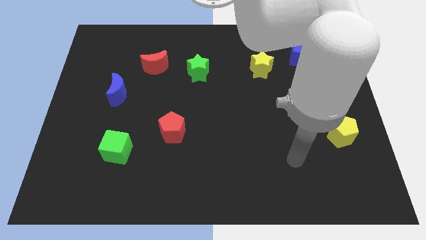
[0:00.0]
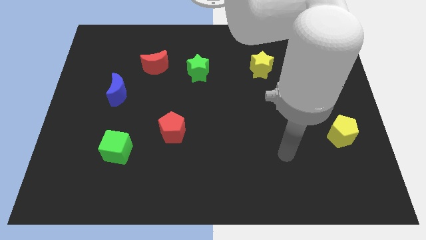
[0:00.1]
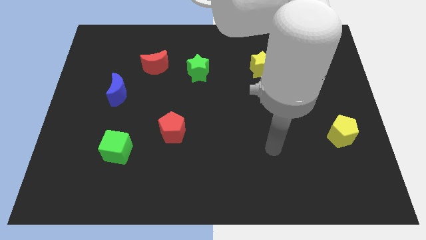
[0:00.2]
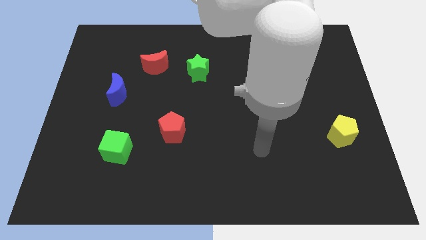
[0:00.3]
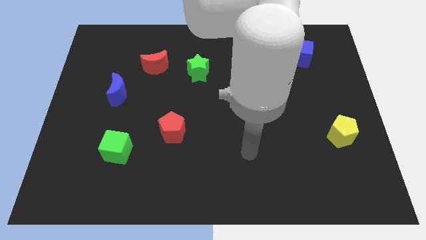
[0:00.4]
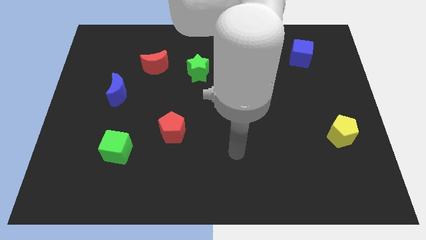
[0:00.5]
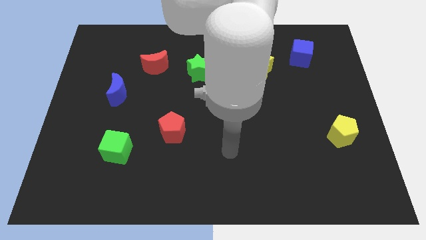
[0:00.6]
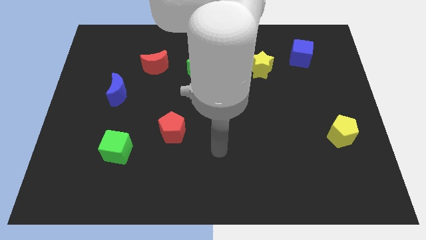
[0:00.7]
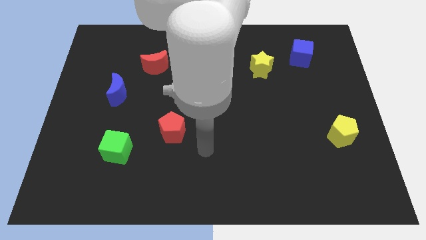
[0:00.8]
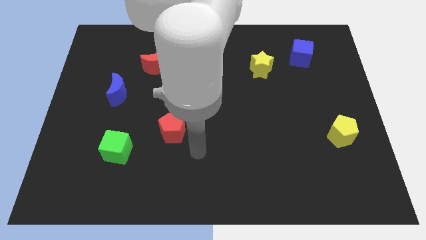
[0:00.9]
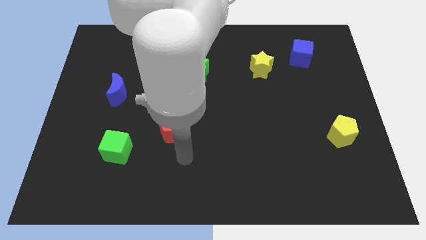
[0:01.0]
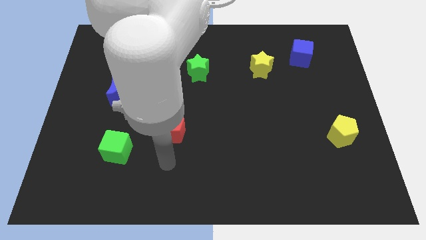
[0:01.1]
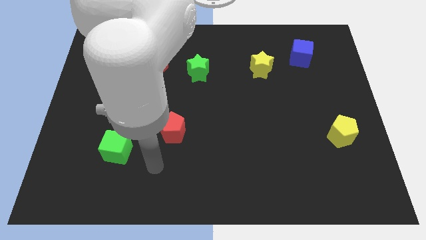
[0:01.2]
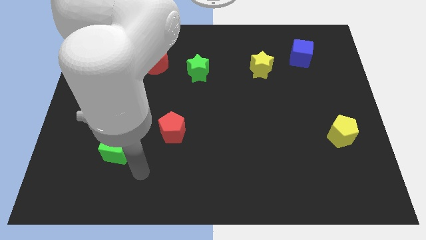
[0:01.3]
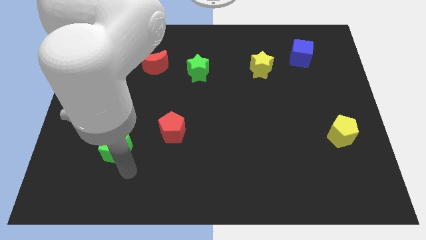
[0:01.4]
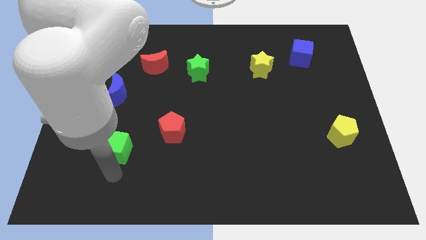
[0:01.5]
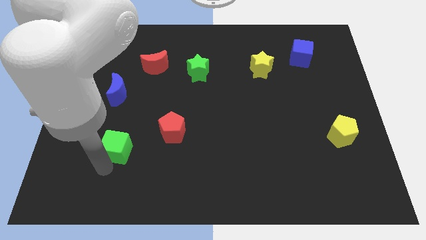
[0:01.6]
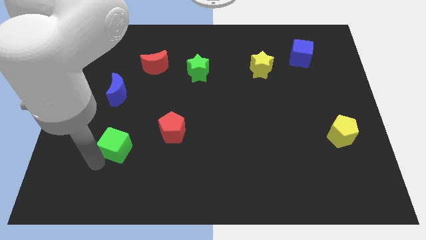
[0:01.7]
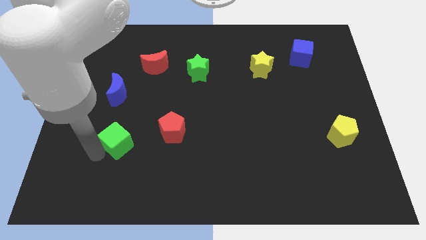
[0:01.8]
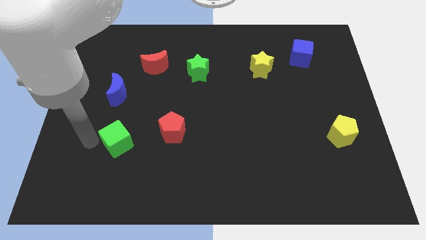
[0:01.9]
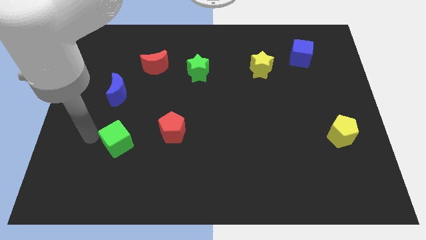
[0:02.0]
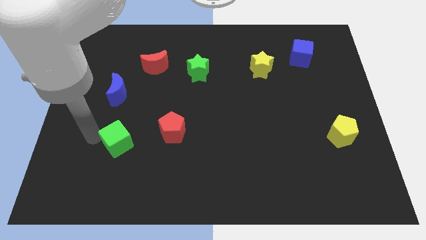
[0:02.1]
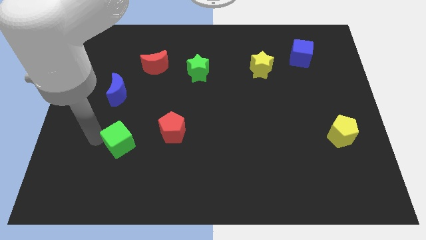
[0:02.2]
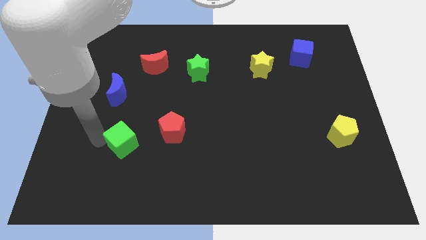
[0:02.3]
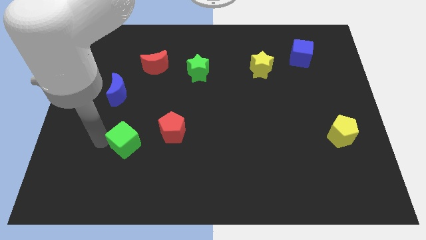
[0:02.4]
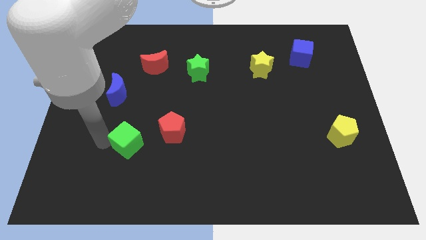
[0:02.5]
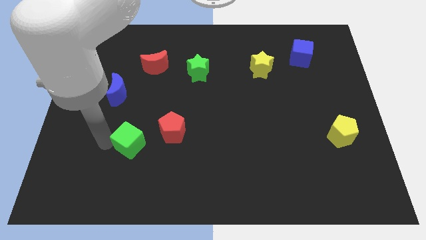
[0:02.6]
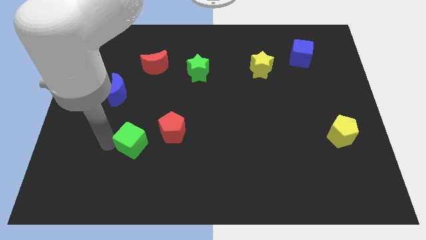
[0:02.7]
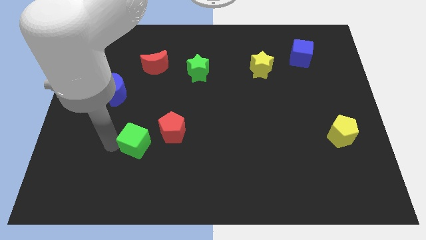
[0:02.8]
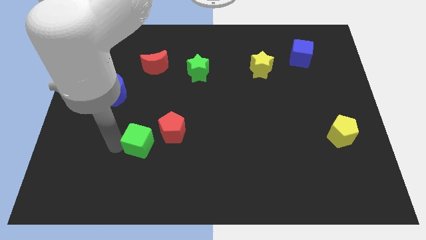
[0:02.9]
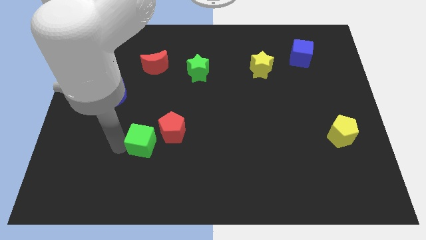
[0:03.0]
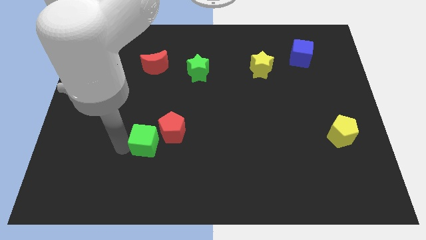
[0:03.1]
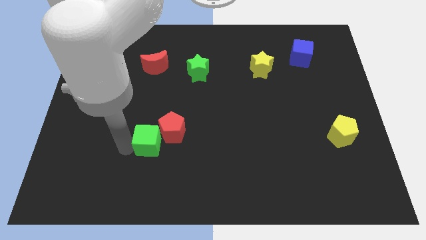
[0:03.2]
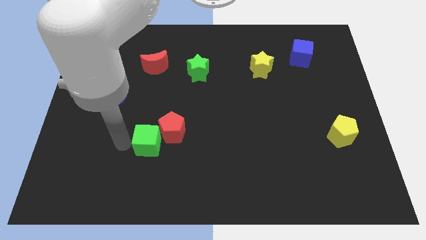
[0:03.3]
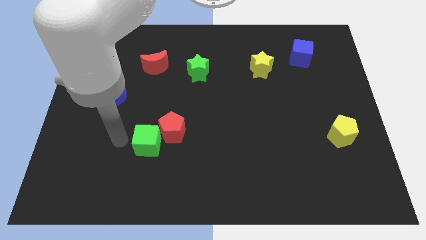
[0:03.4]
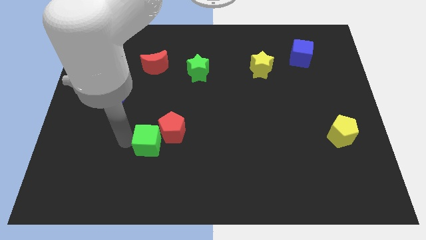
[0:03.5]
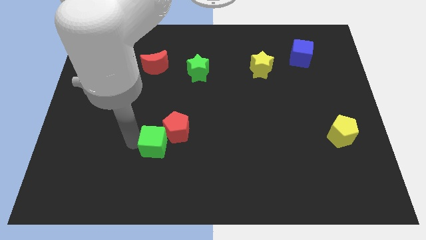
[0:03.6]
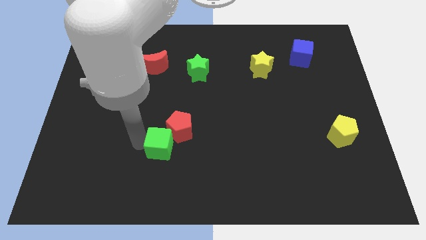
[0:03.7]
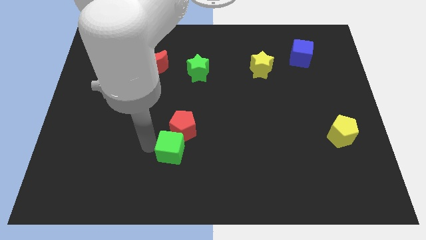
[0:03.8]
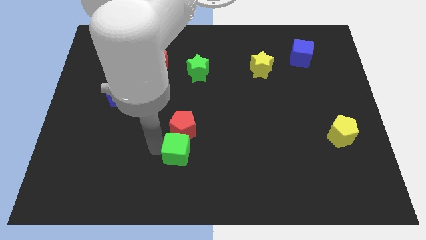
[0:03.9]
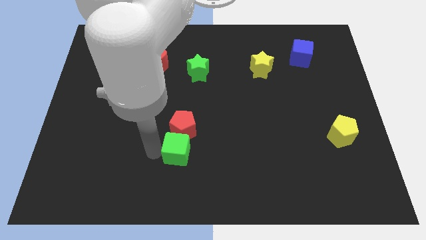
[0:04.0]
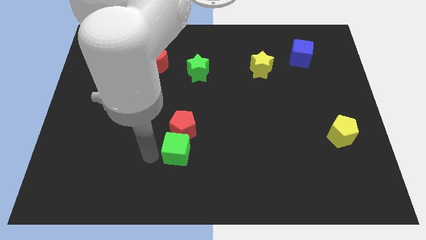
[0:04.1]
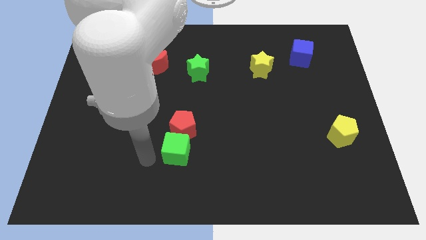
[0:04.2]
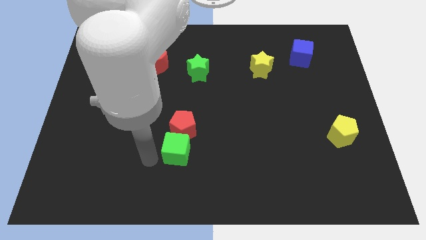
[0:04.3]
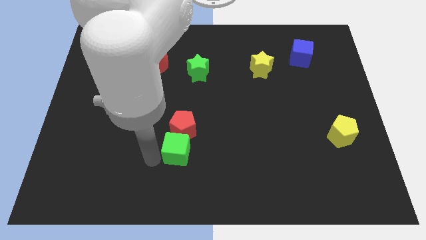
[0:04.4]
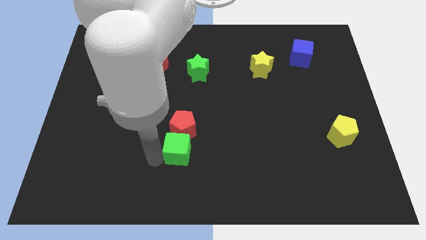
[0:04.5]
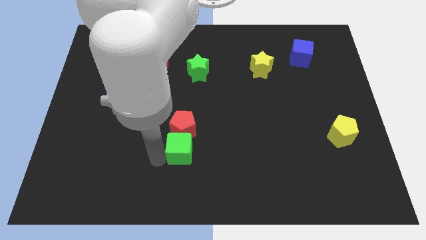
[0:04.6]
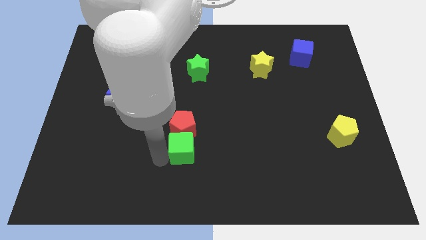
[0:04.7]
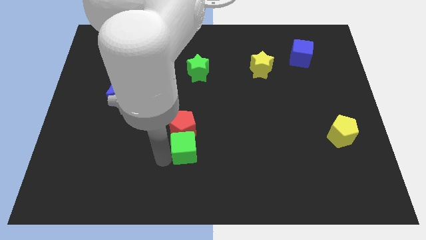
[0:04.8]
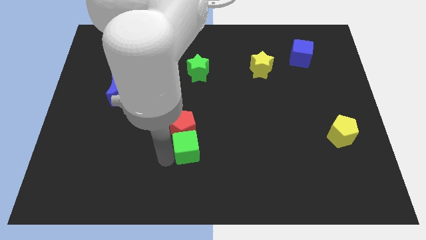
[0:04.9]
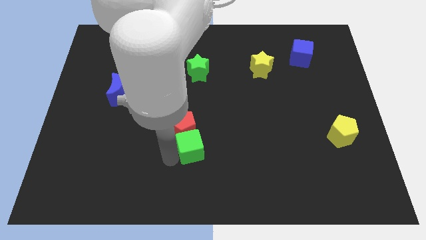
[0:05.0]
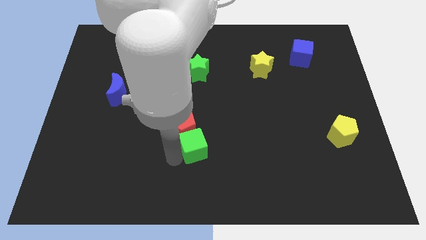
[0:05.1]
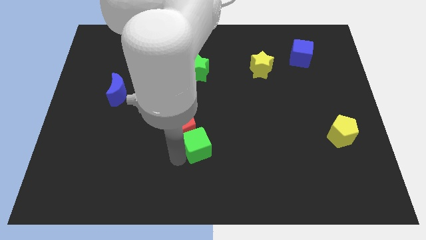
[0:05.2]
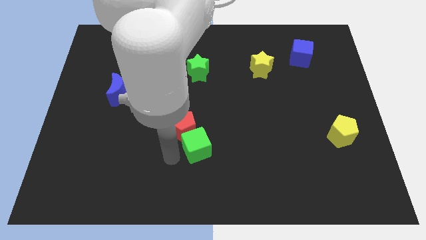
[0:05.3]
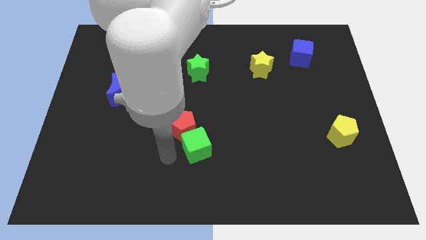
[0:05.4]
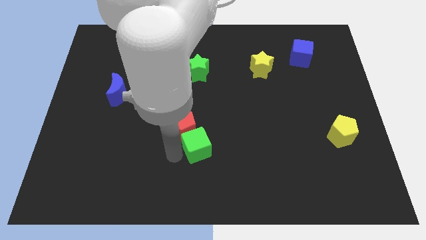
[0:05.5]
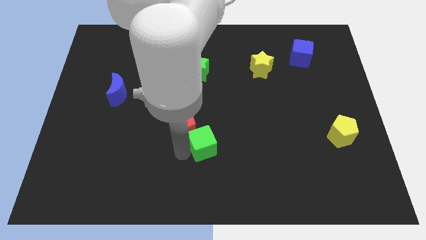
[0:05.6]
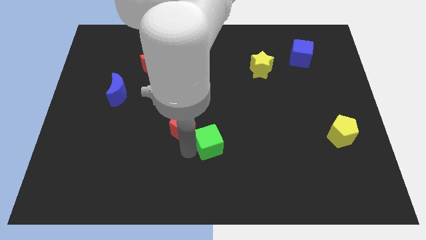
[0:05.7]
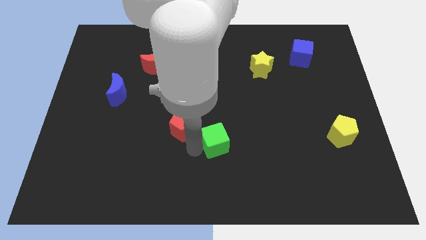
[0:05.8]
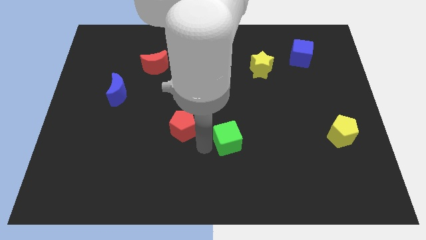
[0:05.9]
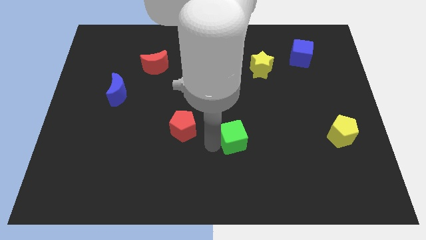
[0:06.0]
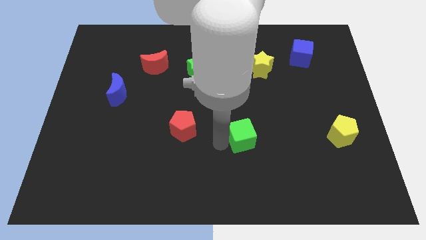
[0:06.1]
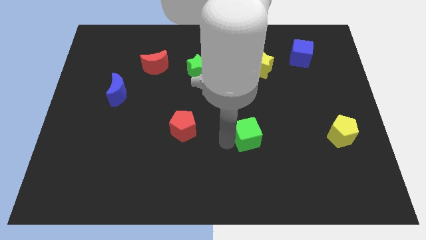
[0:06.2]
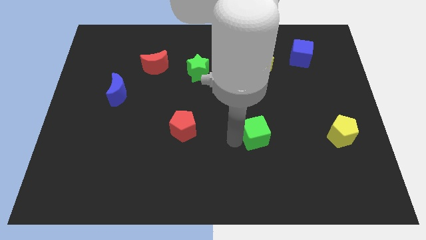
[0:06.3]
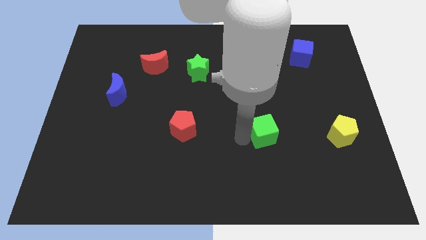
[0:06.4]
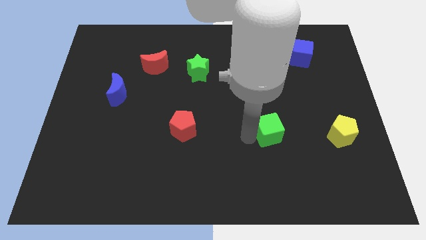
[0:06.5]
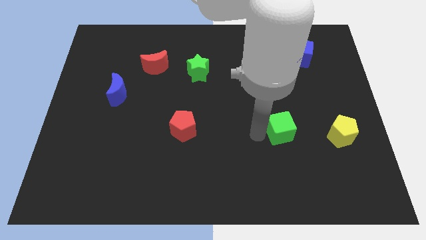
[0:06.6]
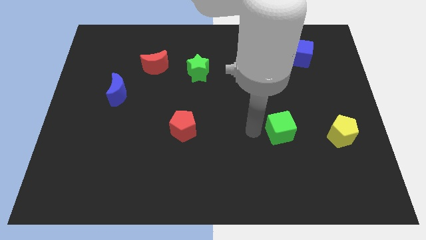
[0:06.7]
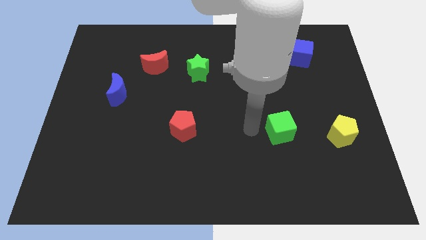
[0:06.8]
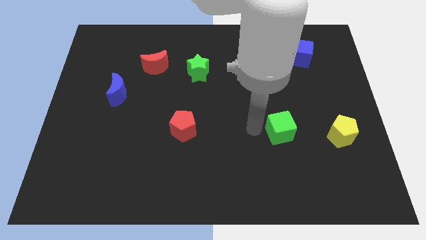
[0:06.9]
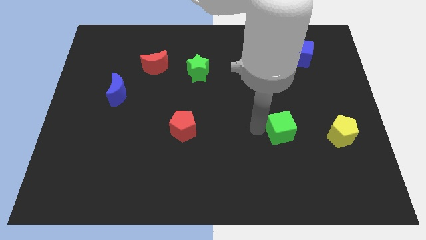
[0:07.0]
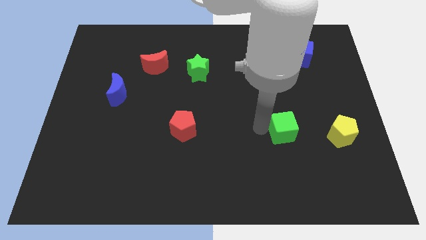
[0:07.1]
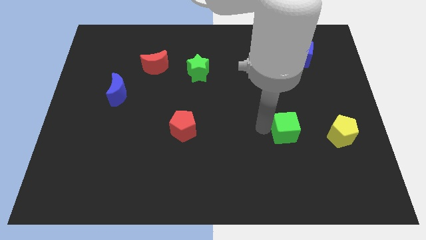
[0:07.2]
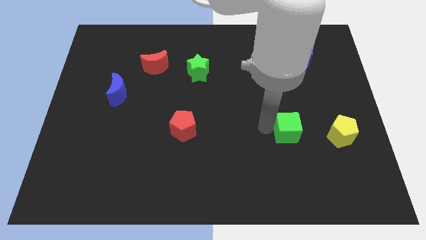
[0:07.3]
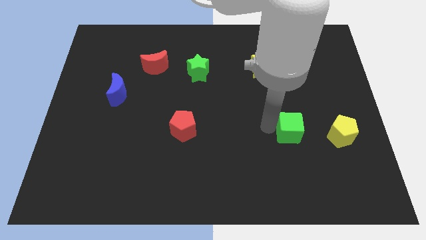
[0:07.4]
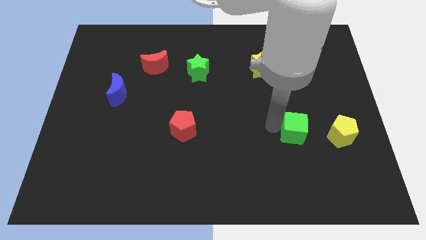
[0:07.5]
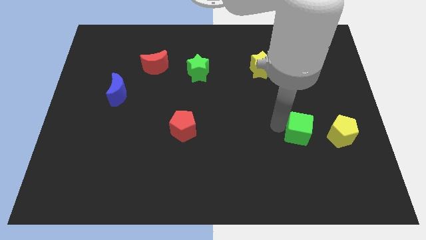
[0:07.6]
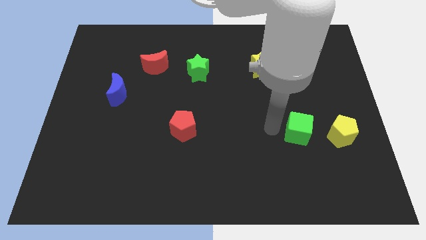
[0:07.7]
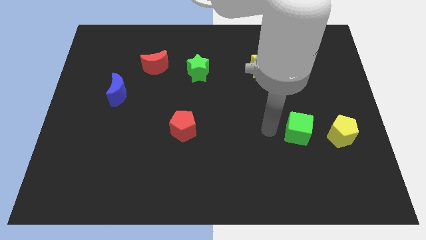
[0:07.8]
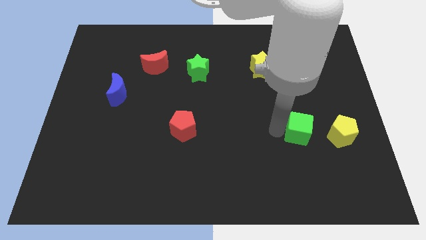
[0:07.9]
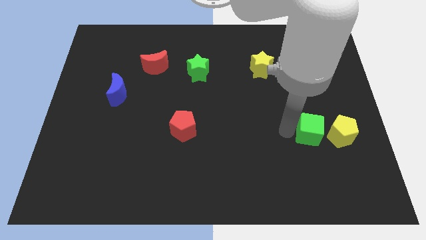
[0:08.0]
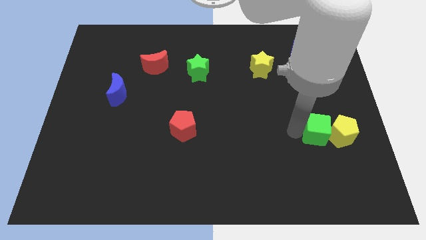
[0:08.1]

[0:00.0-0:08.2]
move the green cube to the yellow pentagon
